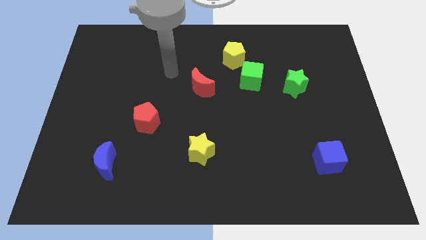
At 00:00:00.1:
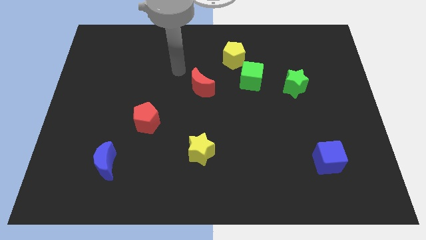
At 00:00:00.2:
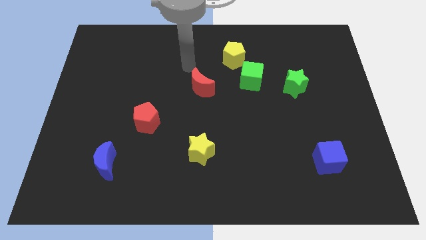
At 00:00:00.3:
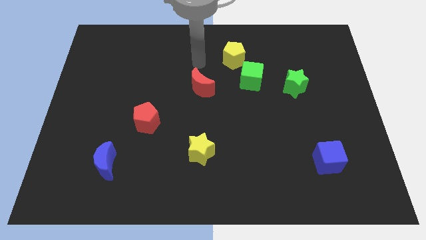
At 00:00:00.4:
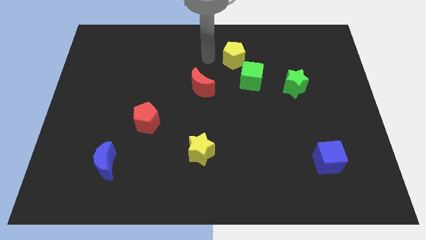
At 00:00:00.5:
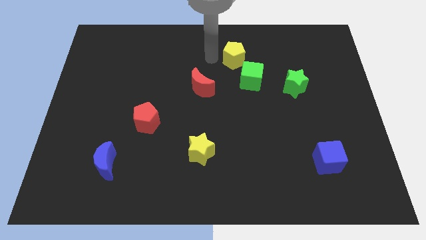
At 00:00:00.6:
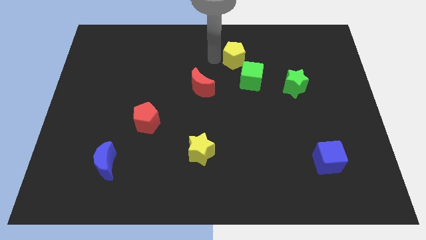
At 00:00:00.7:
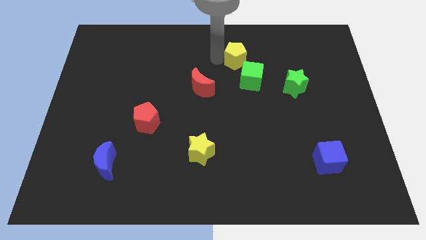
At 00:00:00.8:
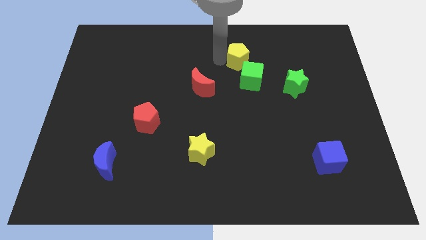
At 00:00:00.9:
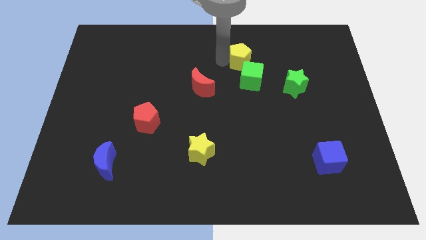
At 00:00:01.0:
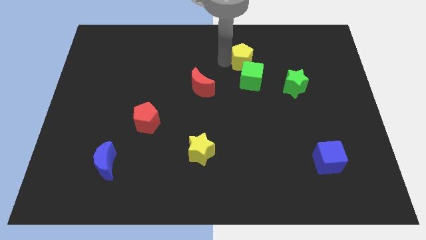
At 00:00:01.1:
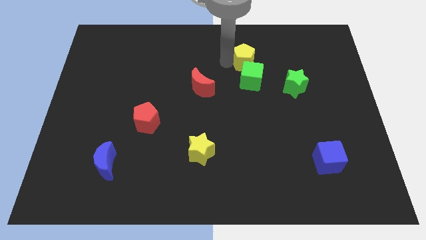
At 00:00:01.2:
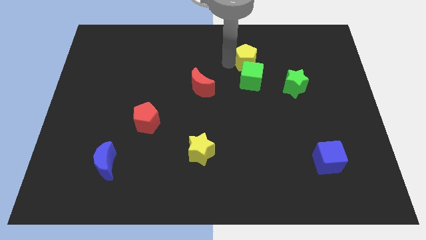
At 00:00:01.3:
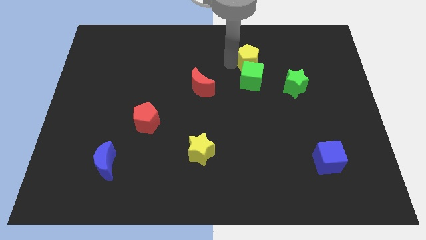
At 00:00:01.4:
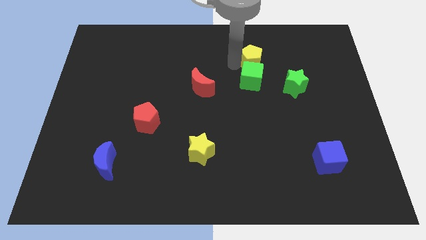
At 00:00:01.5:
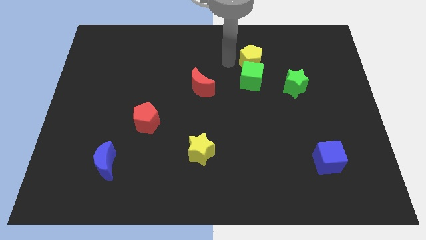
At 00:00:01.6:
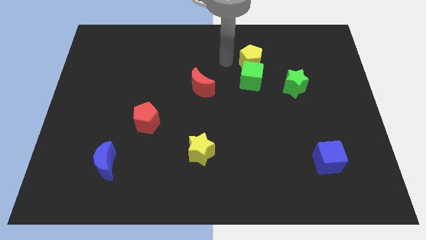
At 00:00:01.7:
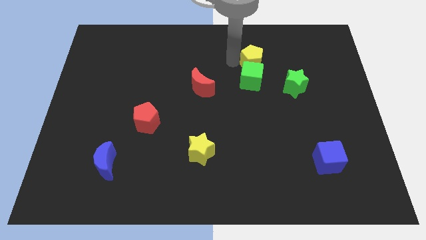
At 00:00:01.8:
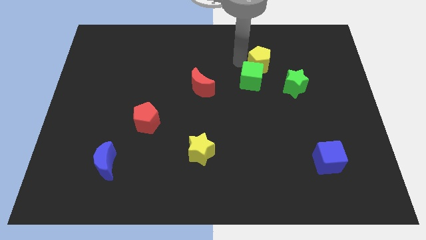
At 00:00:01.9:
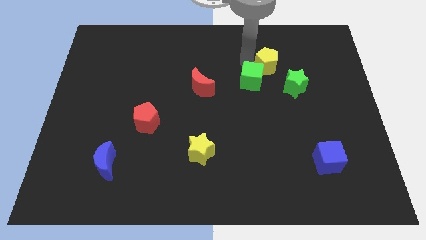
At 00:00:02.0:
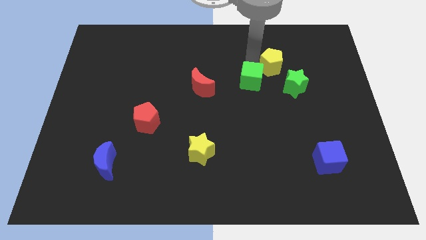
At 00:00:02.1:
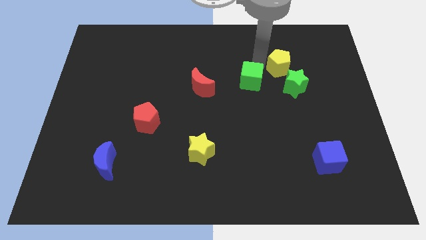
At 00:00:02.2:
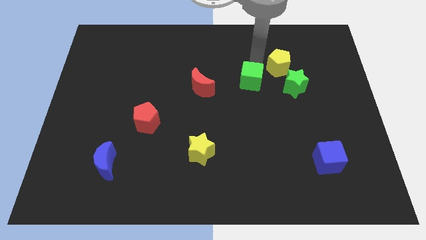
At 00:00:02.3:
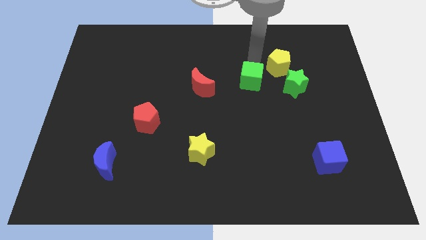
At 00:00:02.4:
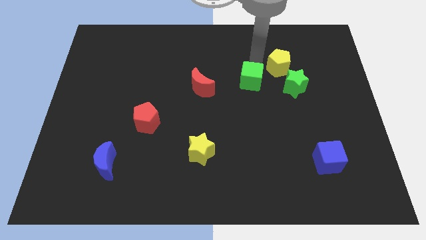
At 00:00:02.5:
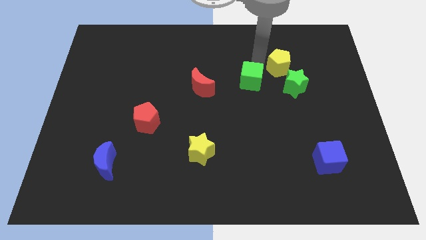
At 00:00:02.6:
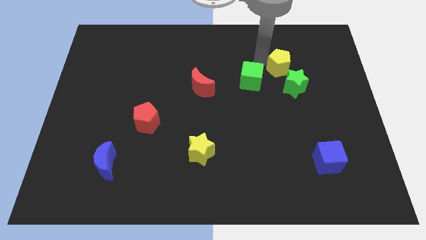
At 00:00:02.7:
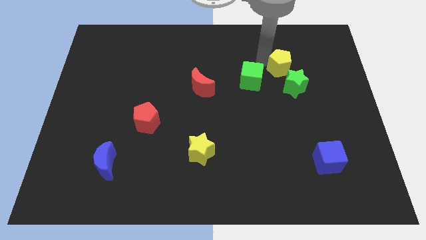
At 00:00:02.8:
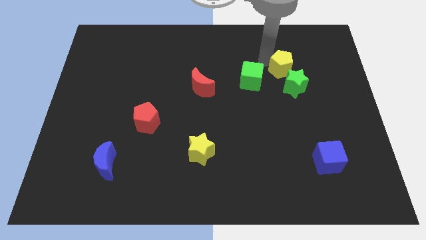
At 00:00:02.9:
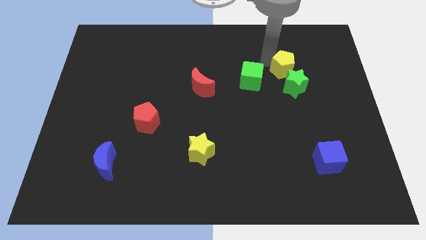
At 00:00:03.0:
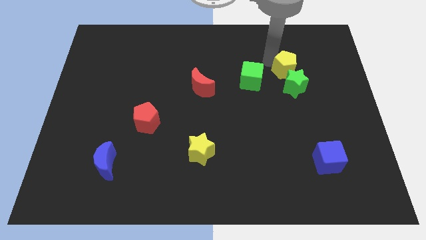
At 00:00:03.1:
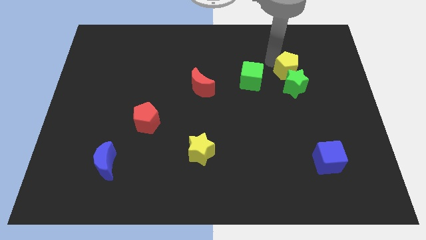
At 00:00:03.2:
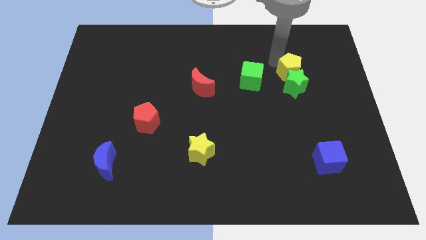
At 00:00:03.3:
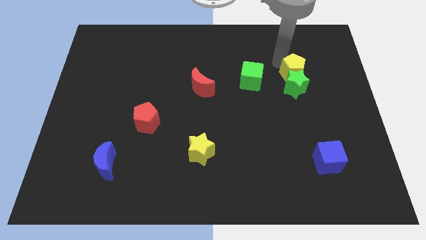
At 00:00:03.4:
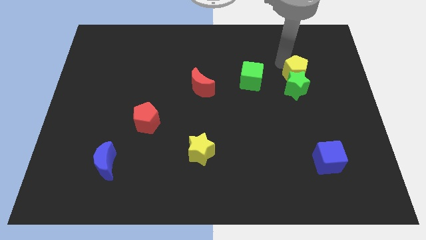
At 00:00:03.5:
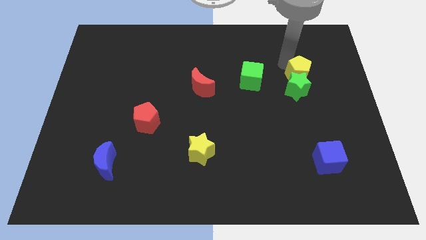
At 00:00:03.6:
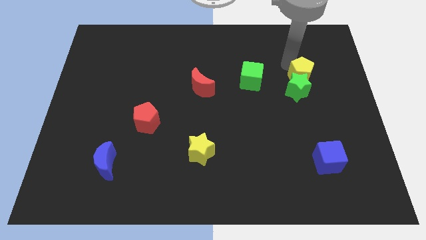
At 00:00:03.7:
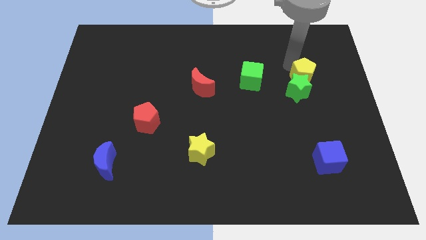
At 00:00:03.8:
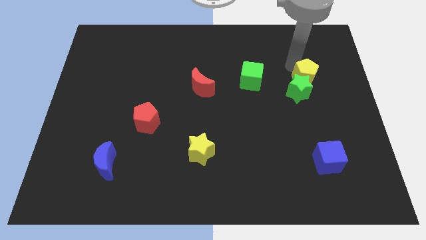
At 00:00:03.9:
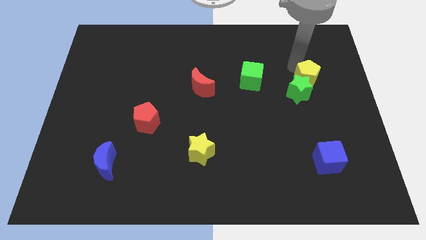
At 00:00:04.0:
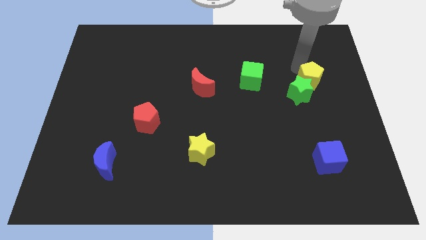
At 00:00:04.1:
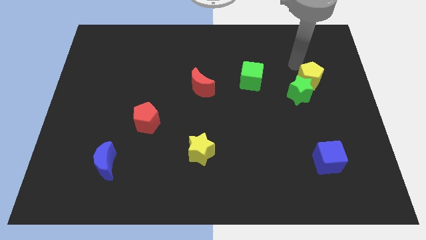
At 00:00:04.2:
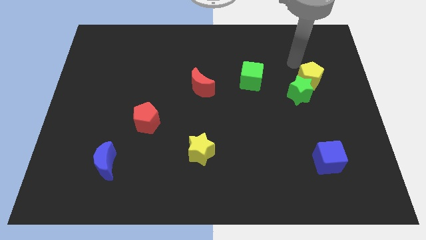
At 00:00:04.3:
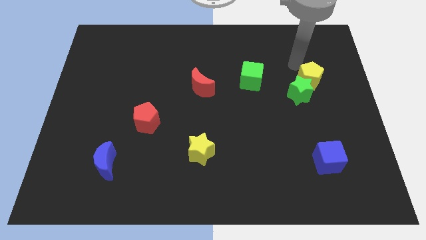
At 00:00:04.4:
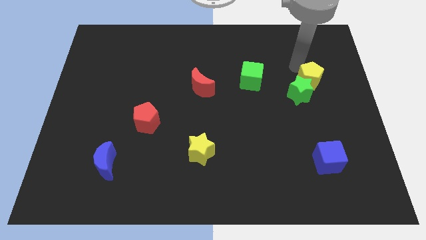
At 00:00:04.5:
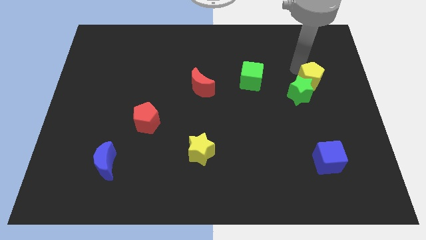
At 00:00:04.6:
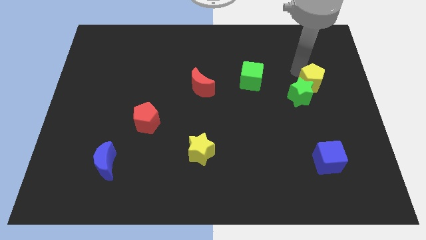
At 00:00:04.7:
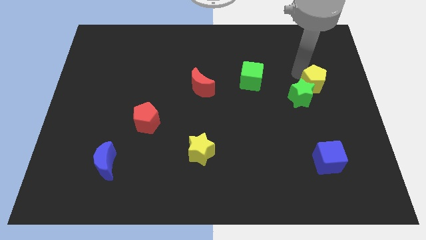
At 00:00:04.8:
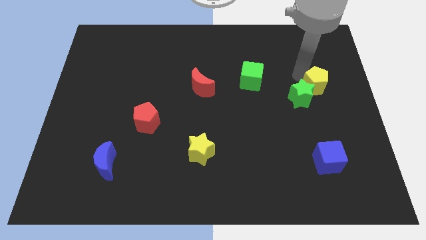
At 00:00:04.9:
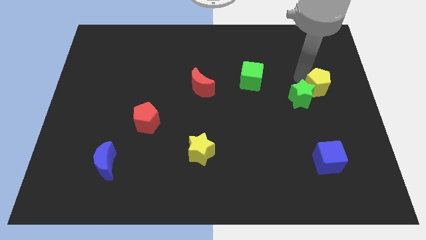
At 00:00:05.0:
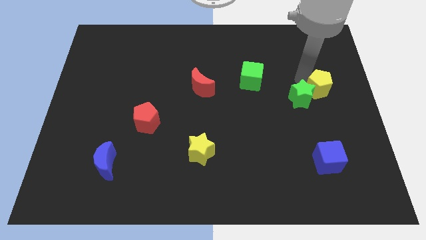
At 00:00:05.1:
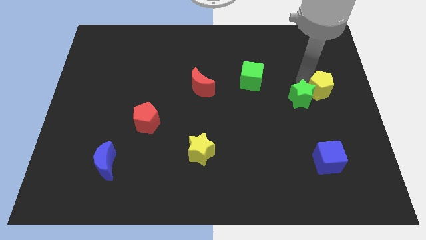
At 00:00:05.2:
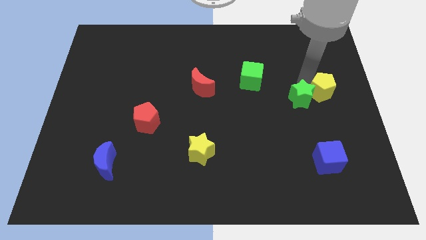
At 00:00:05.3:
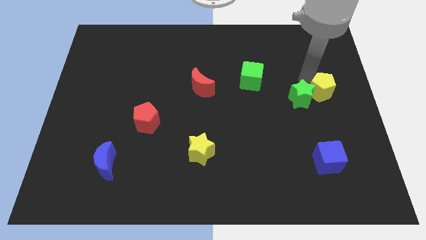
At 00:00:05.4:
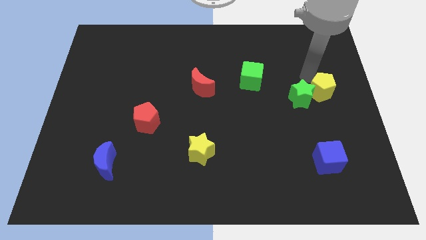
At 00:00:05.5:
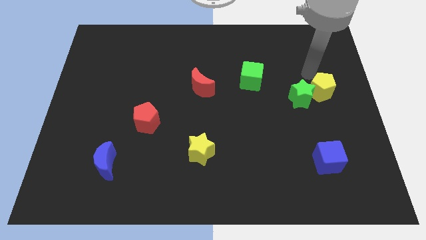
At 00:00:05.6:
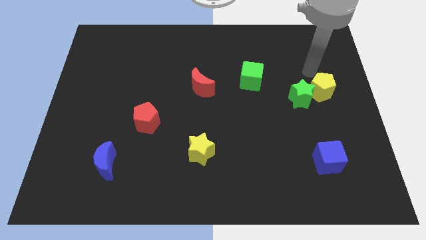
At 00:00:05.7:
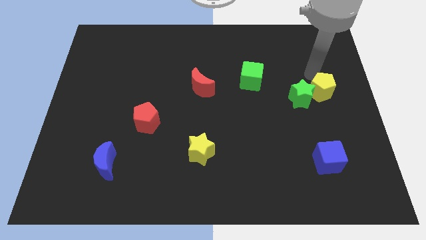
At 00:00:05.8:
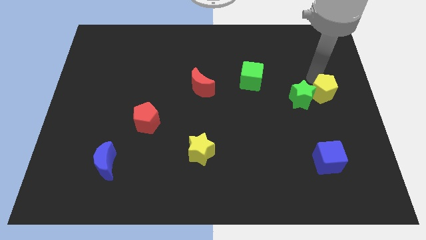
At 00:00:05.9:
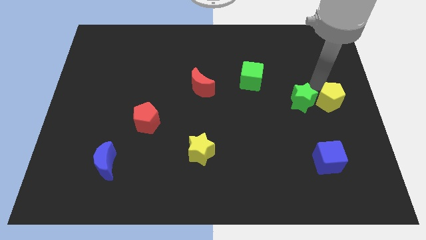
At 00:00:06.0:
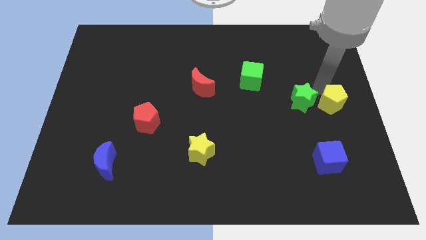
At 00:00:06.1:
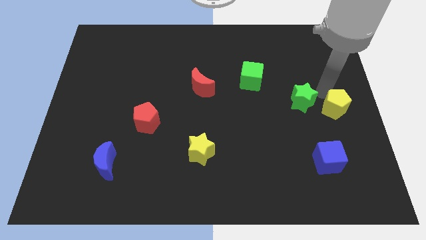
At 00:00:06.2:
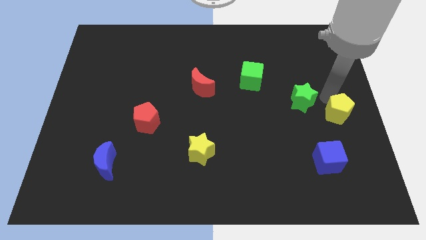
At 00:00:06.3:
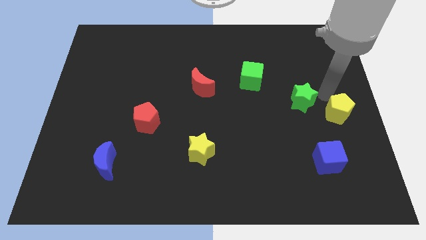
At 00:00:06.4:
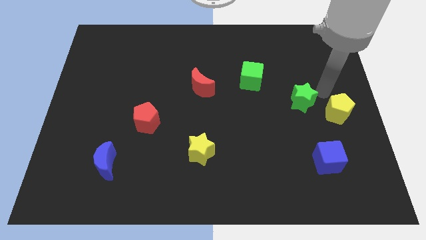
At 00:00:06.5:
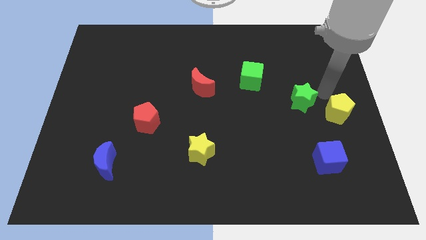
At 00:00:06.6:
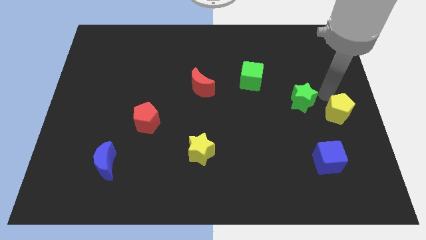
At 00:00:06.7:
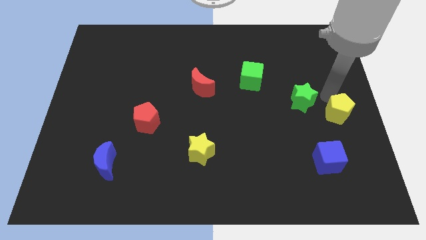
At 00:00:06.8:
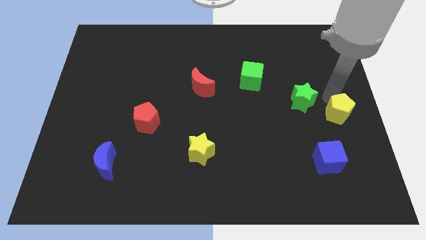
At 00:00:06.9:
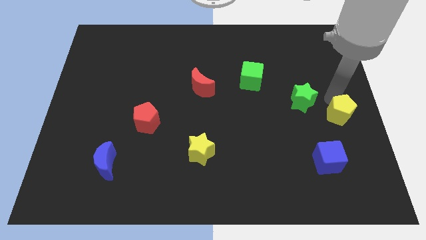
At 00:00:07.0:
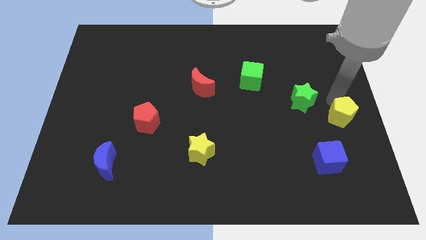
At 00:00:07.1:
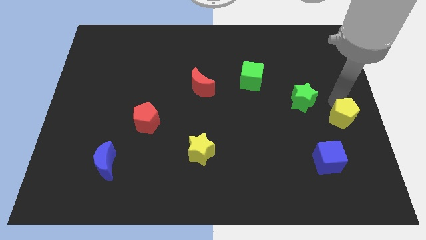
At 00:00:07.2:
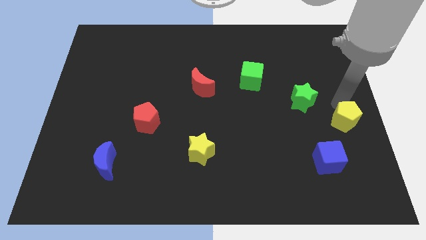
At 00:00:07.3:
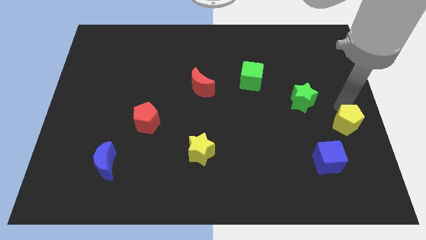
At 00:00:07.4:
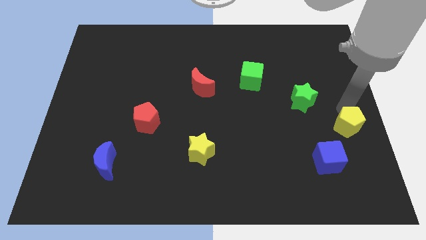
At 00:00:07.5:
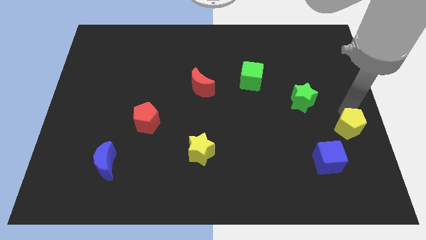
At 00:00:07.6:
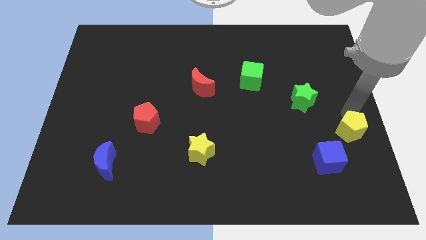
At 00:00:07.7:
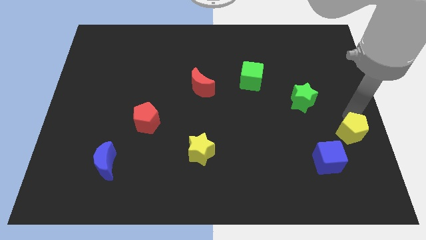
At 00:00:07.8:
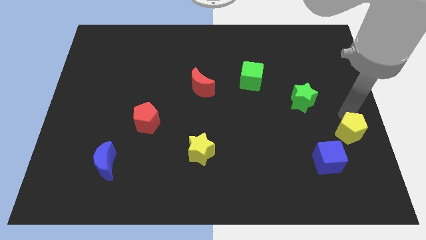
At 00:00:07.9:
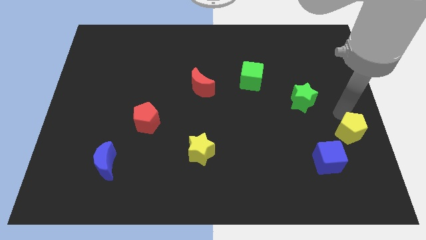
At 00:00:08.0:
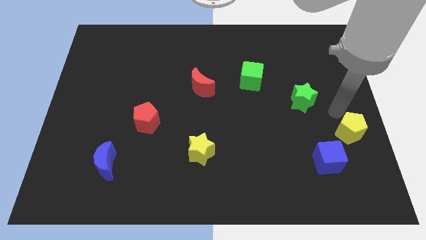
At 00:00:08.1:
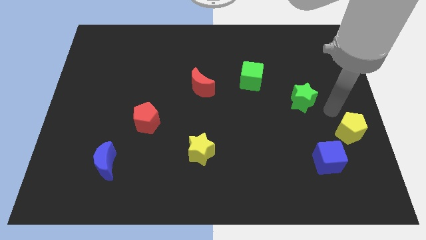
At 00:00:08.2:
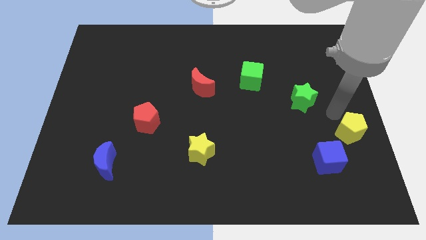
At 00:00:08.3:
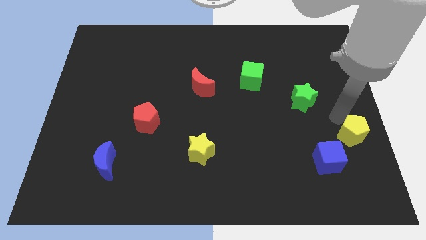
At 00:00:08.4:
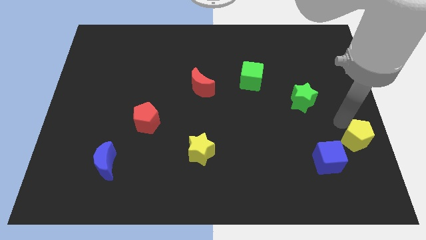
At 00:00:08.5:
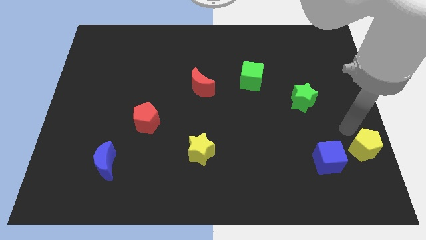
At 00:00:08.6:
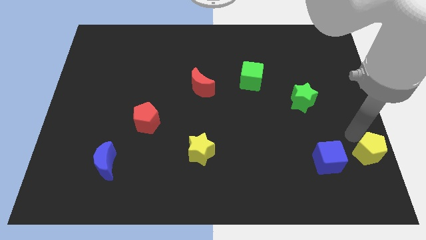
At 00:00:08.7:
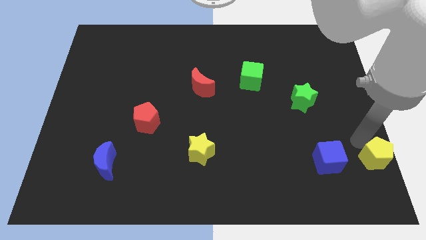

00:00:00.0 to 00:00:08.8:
slide the yellow pentagon to the lower right corner
